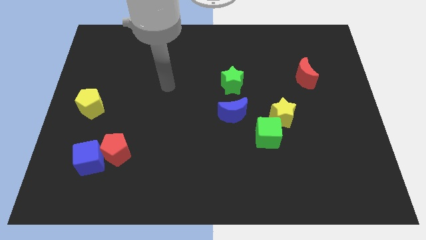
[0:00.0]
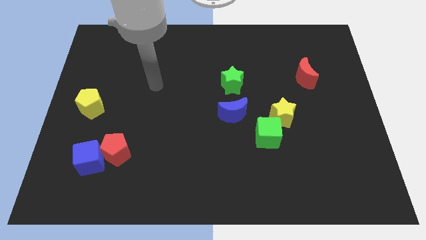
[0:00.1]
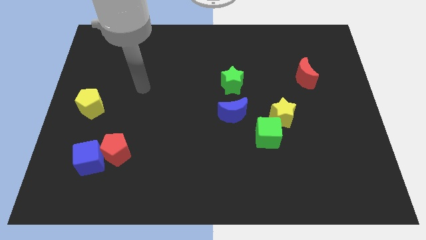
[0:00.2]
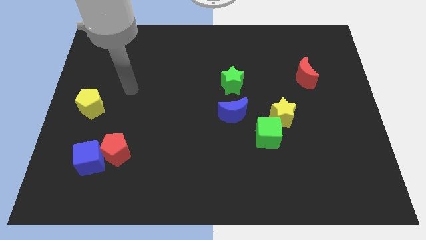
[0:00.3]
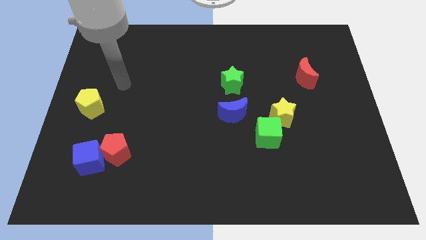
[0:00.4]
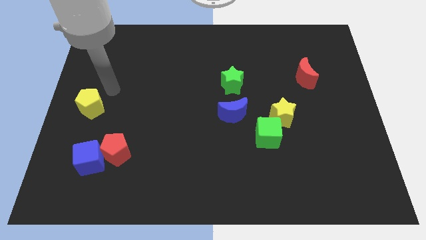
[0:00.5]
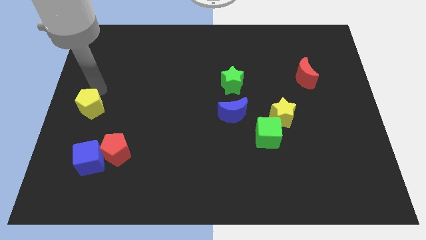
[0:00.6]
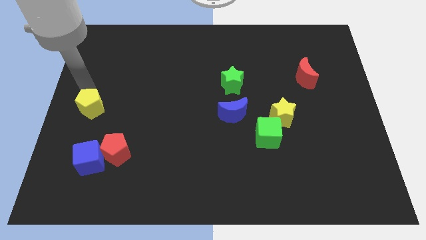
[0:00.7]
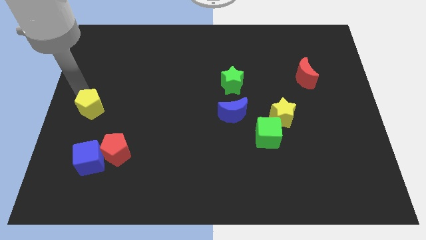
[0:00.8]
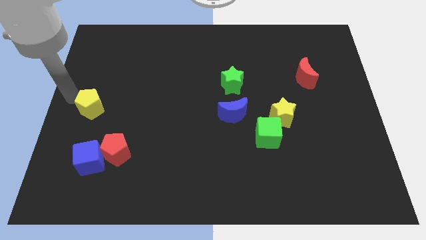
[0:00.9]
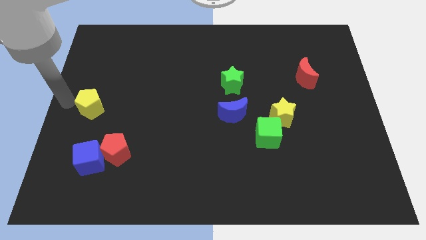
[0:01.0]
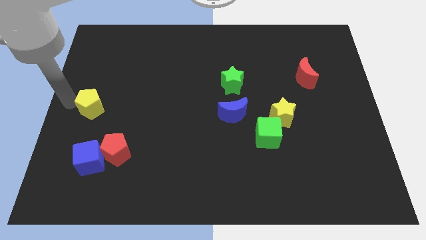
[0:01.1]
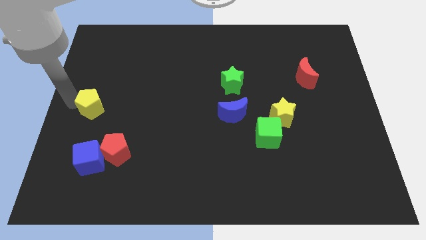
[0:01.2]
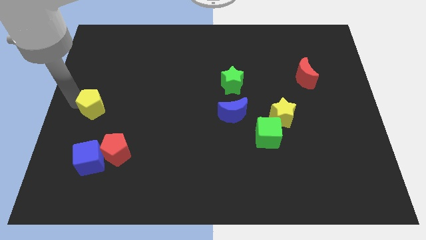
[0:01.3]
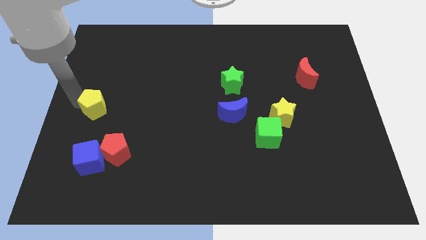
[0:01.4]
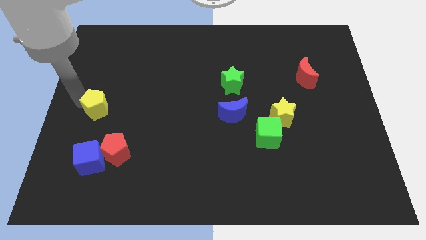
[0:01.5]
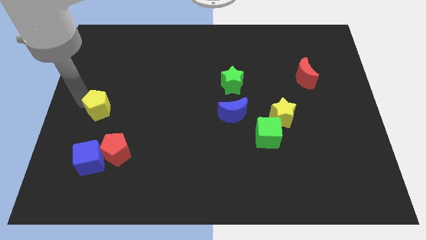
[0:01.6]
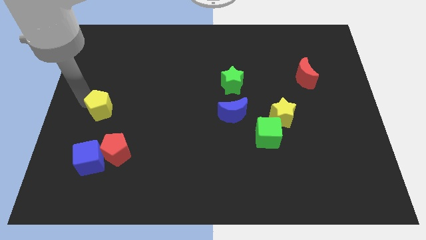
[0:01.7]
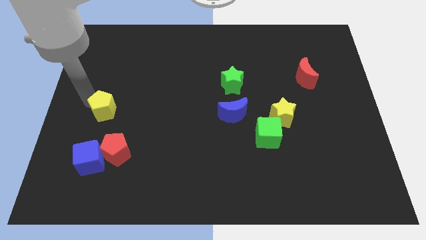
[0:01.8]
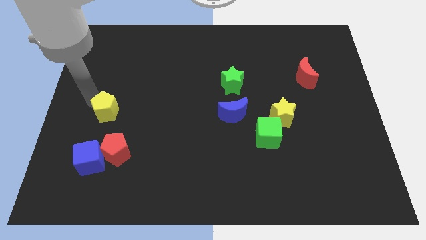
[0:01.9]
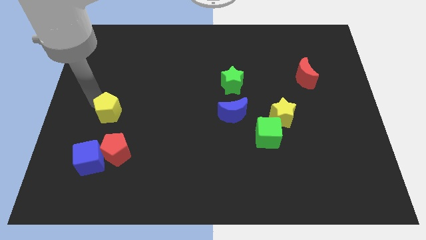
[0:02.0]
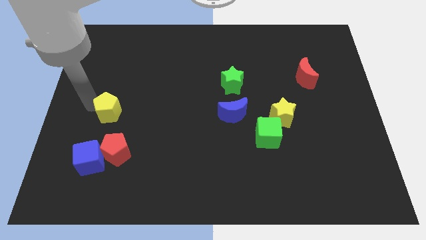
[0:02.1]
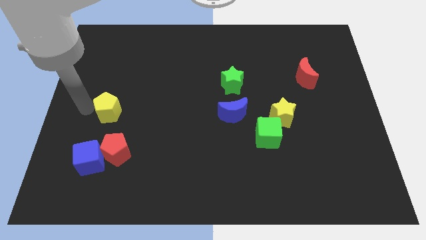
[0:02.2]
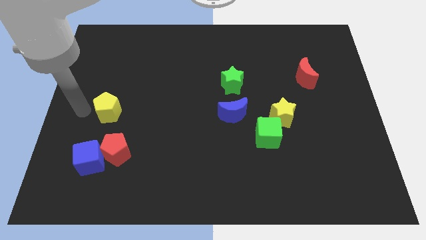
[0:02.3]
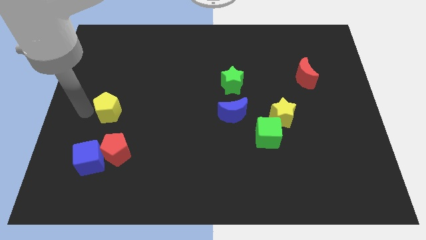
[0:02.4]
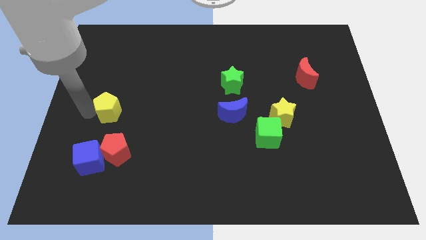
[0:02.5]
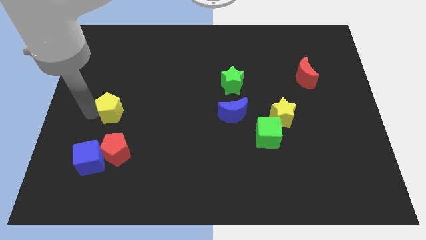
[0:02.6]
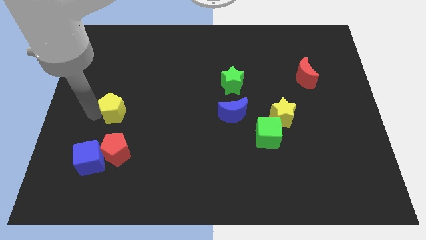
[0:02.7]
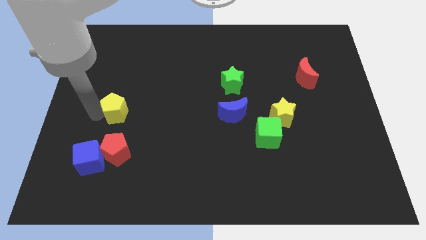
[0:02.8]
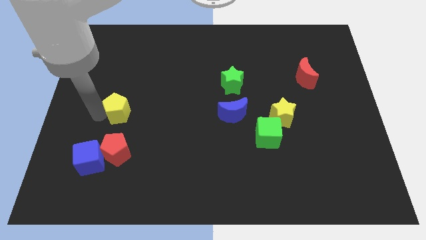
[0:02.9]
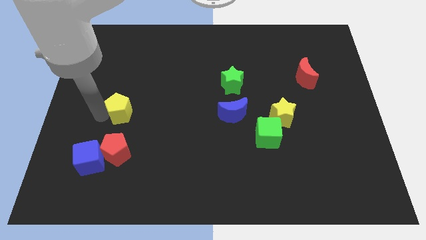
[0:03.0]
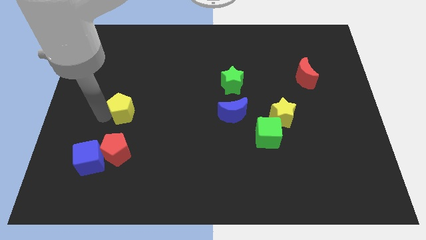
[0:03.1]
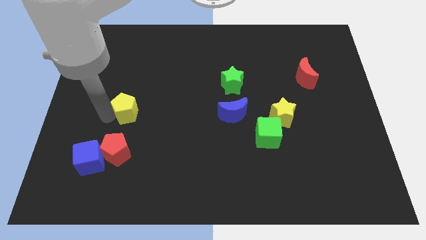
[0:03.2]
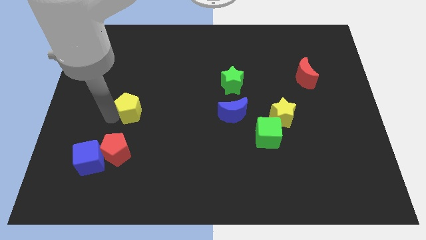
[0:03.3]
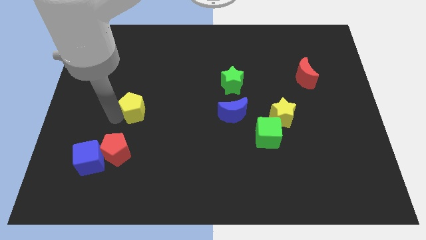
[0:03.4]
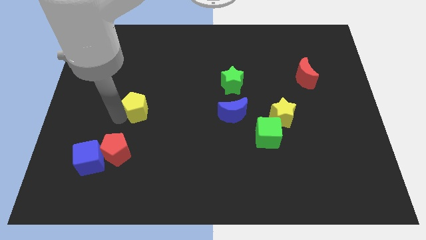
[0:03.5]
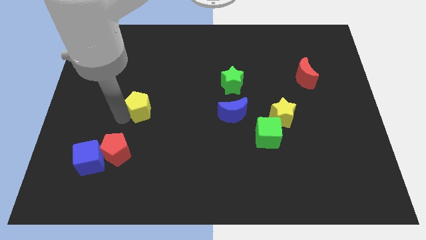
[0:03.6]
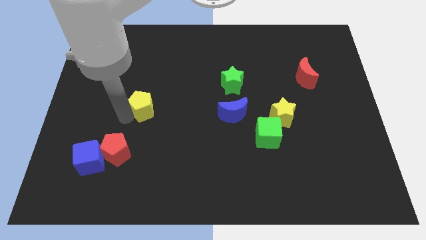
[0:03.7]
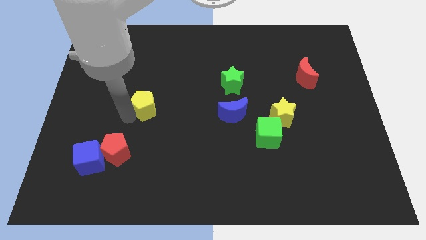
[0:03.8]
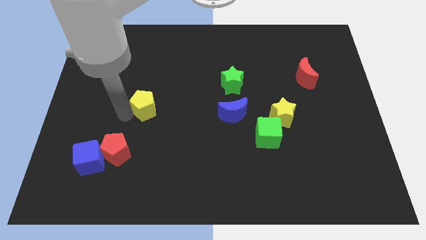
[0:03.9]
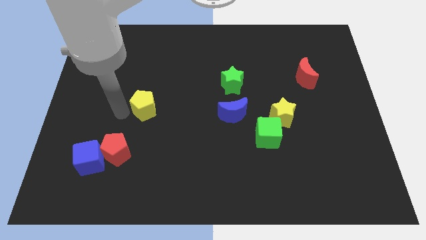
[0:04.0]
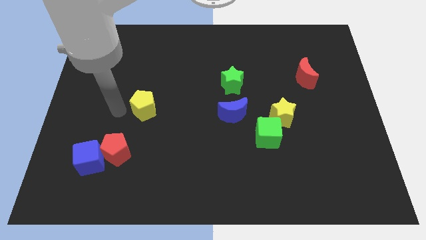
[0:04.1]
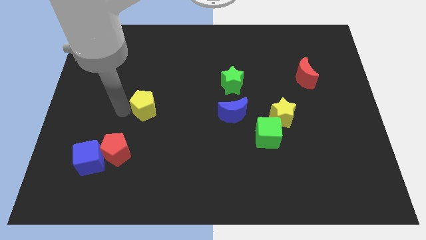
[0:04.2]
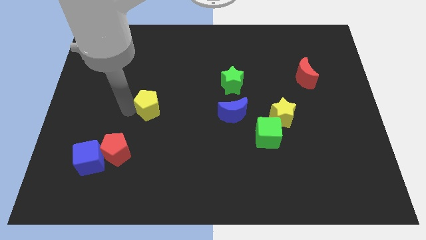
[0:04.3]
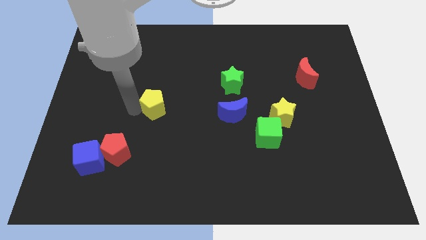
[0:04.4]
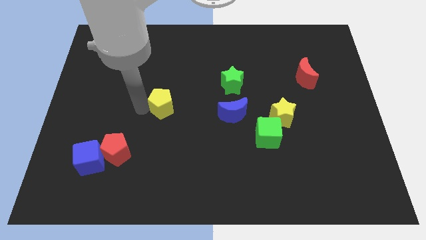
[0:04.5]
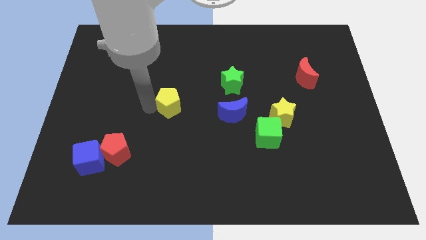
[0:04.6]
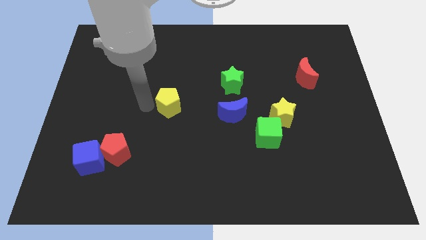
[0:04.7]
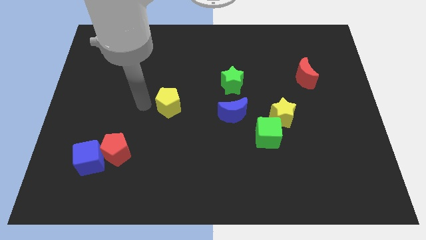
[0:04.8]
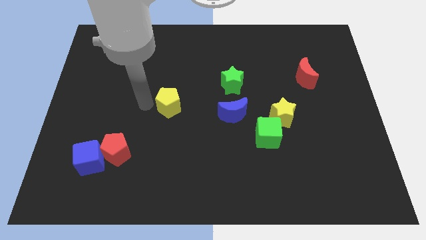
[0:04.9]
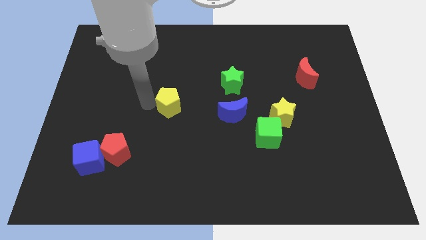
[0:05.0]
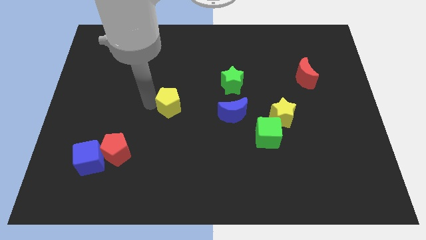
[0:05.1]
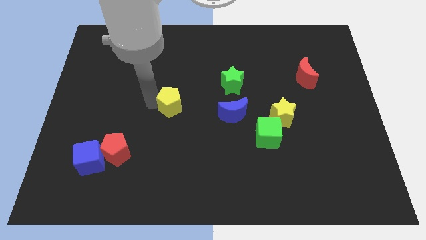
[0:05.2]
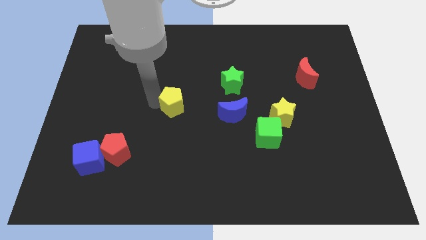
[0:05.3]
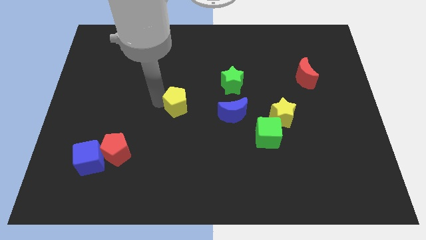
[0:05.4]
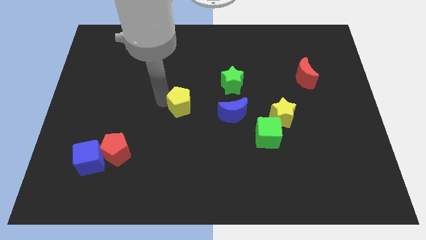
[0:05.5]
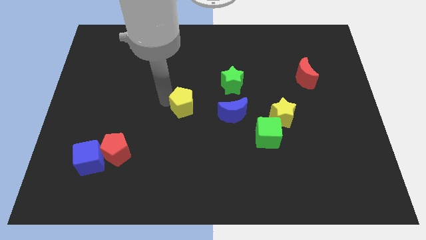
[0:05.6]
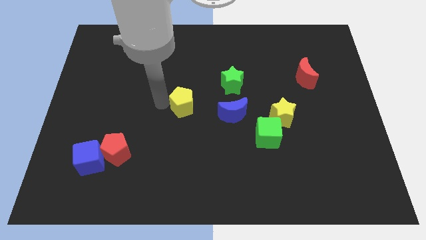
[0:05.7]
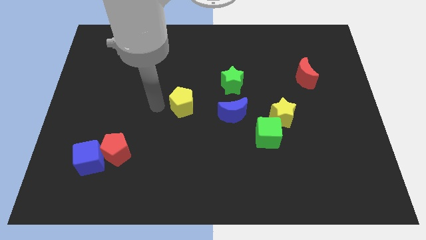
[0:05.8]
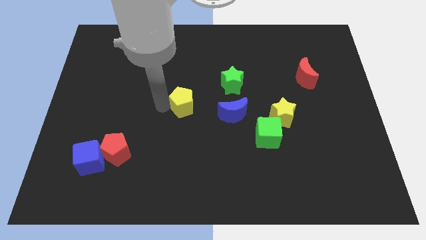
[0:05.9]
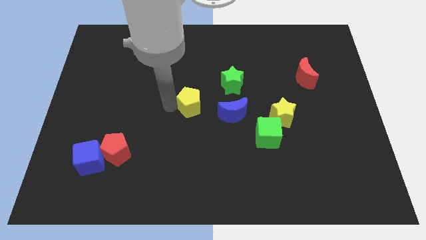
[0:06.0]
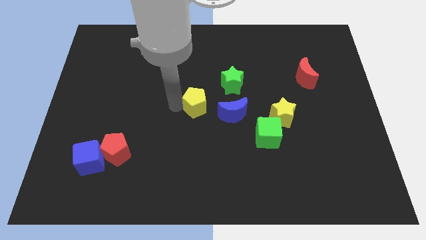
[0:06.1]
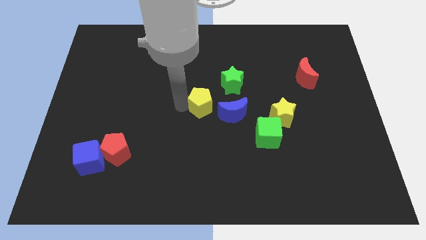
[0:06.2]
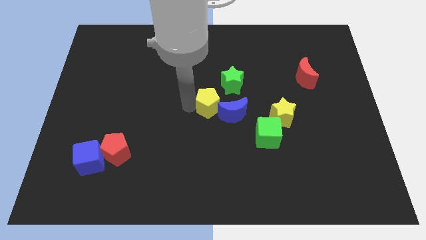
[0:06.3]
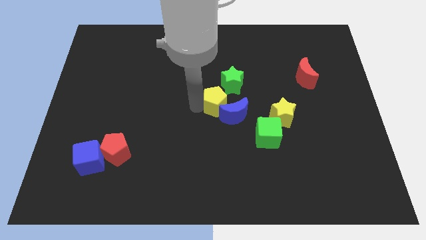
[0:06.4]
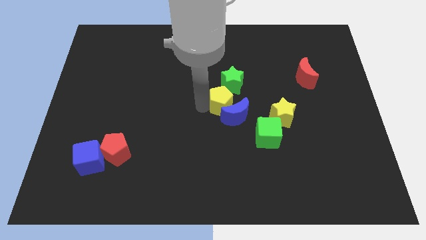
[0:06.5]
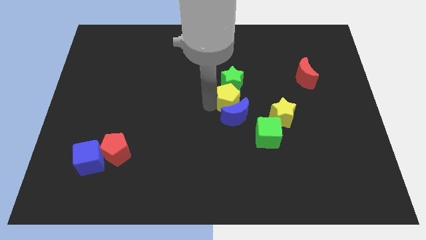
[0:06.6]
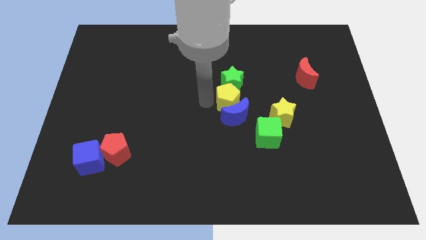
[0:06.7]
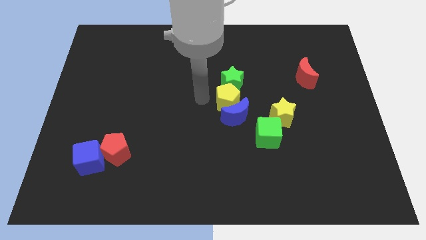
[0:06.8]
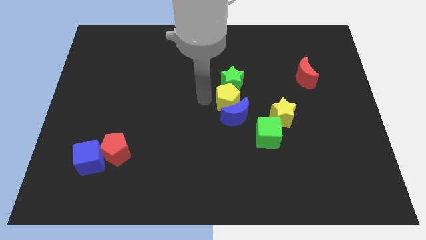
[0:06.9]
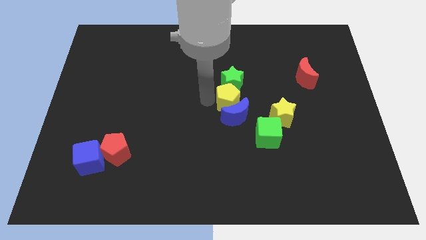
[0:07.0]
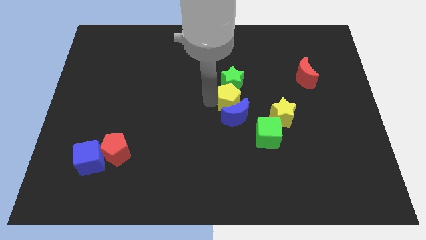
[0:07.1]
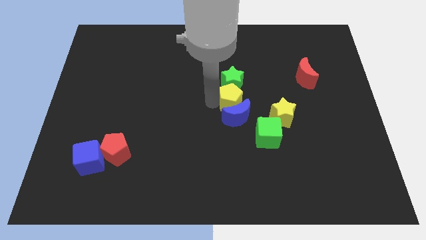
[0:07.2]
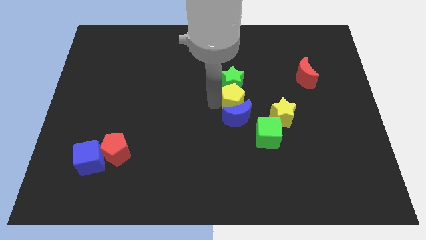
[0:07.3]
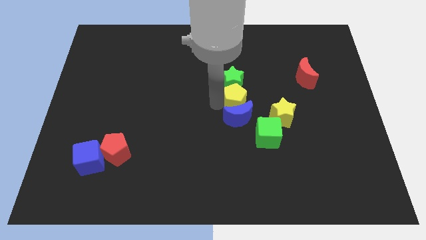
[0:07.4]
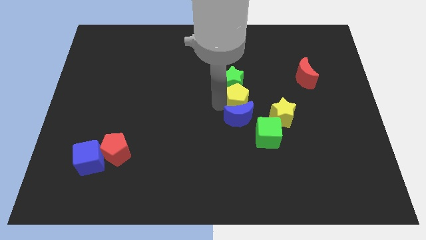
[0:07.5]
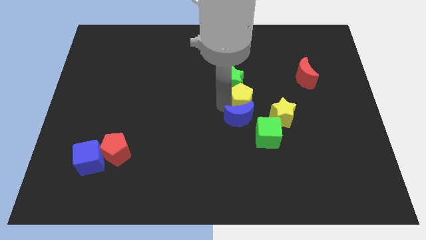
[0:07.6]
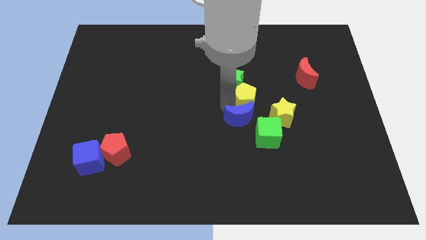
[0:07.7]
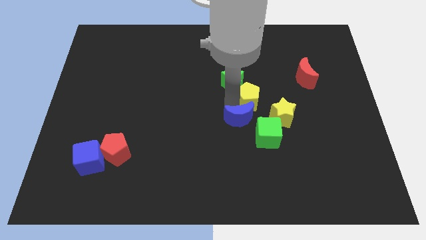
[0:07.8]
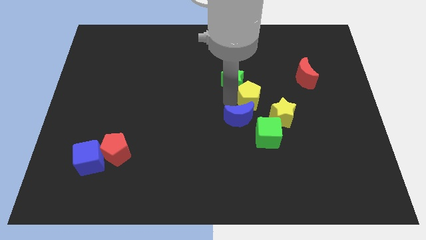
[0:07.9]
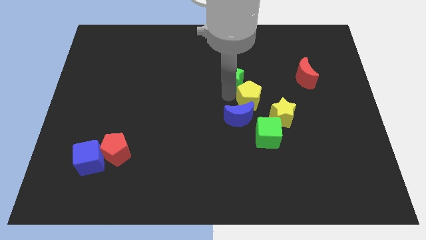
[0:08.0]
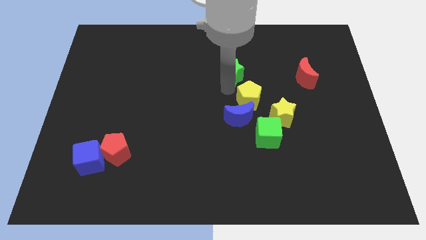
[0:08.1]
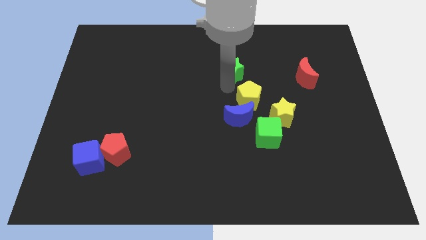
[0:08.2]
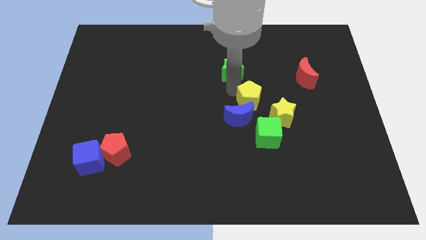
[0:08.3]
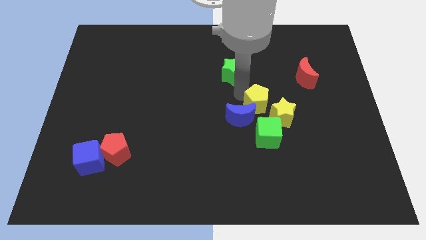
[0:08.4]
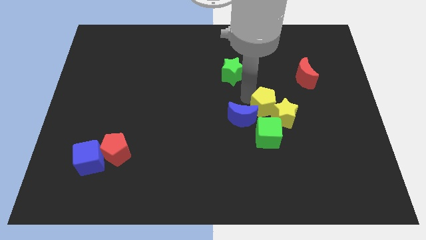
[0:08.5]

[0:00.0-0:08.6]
push the yellow pentagon towards the yellow star
